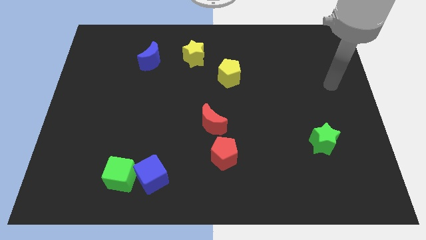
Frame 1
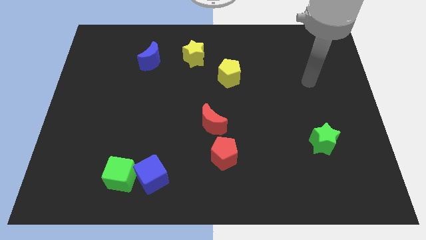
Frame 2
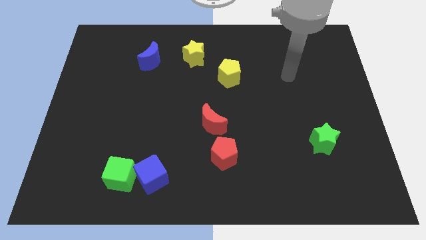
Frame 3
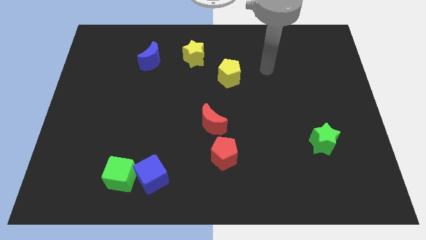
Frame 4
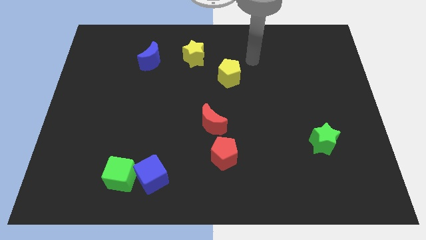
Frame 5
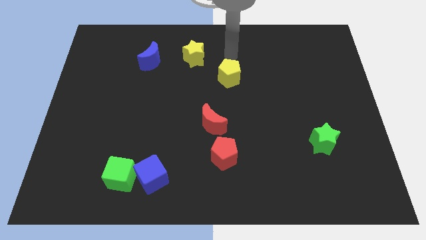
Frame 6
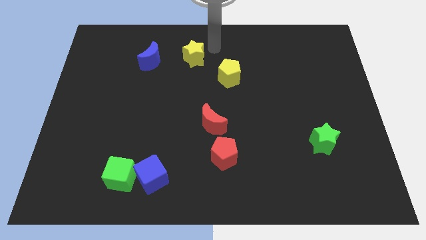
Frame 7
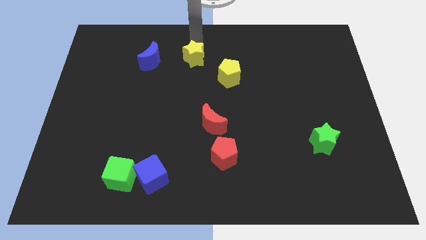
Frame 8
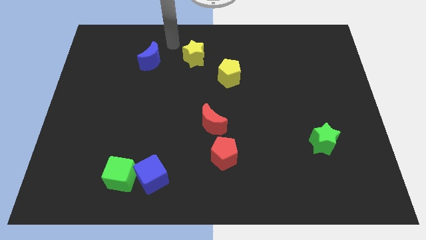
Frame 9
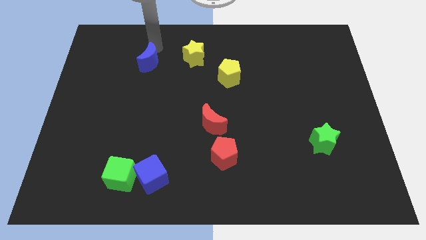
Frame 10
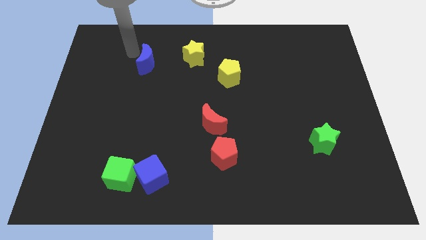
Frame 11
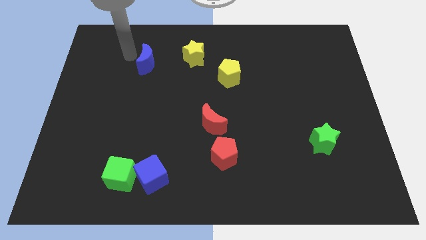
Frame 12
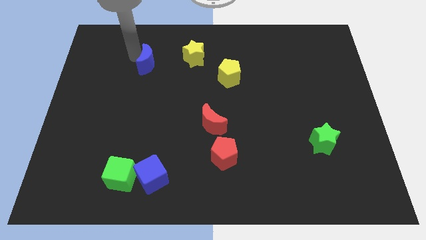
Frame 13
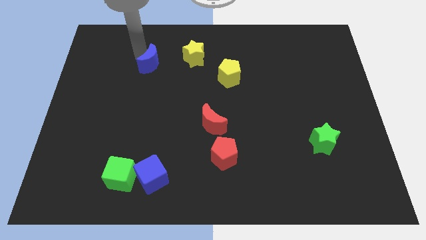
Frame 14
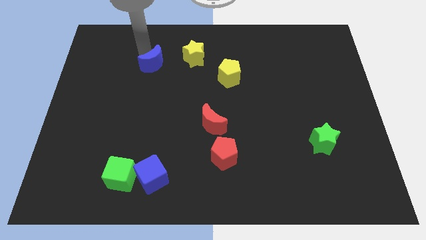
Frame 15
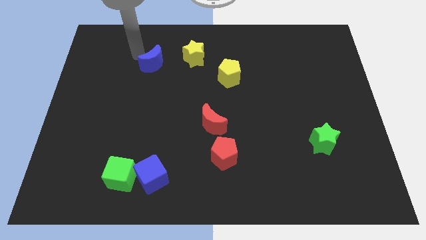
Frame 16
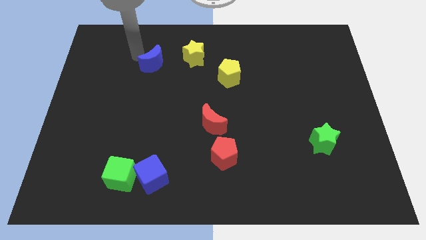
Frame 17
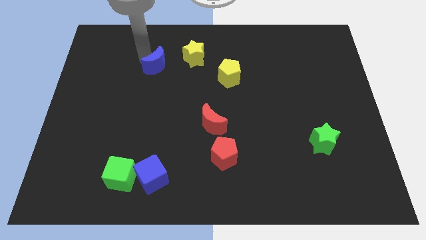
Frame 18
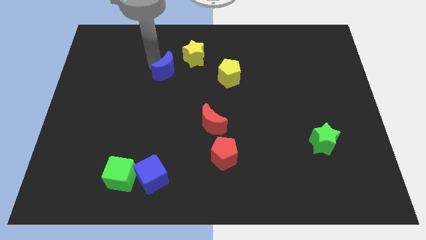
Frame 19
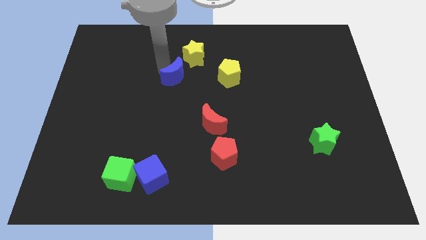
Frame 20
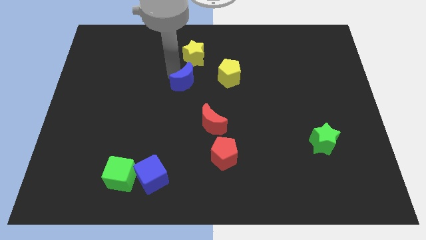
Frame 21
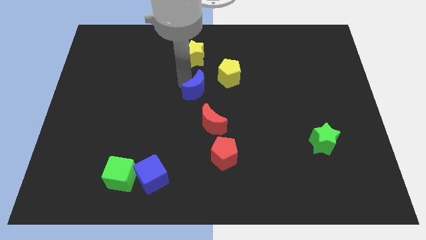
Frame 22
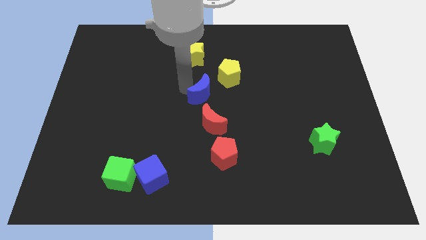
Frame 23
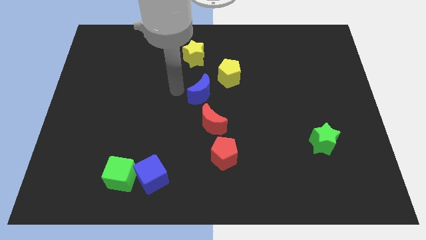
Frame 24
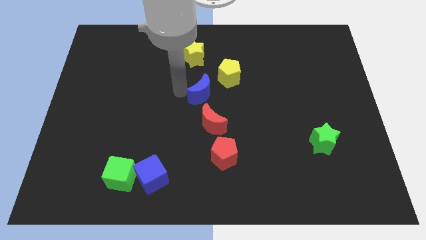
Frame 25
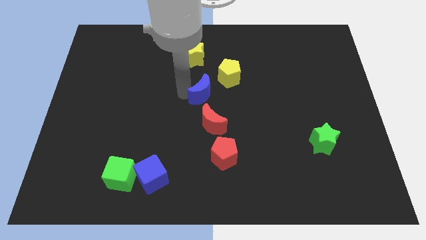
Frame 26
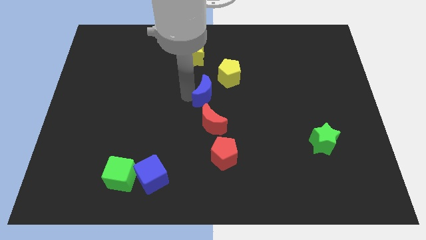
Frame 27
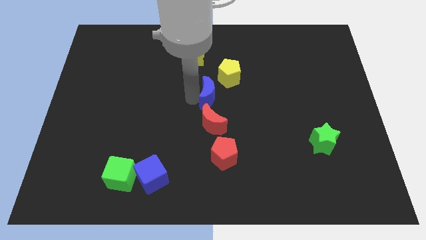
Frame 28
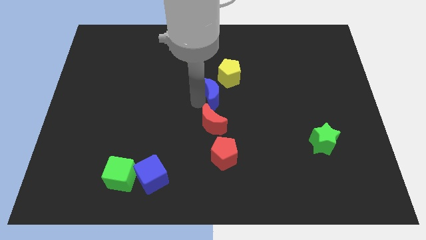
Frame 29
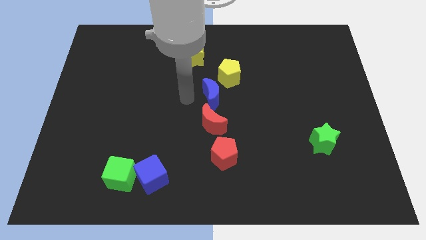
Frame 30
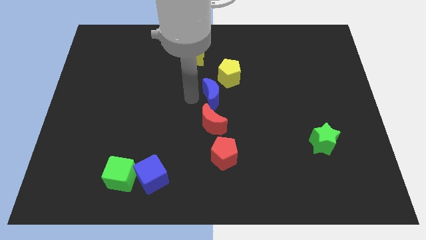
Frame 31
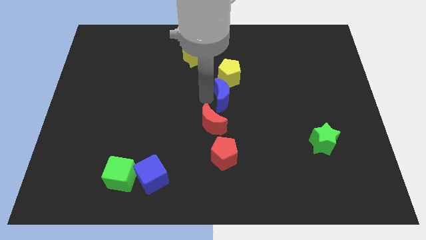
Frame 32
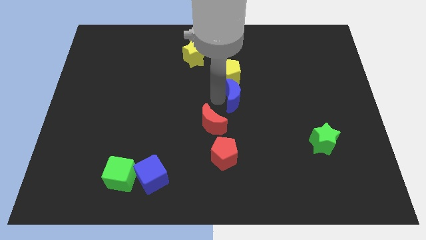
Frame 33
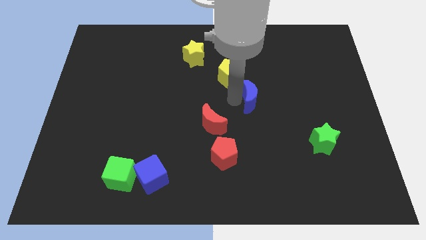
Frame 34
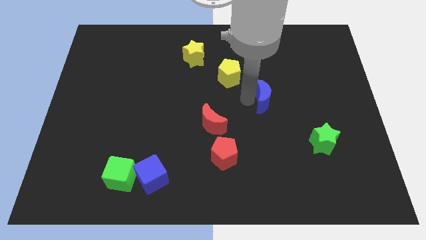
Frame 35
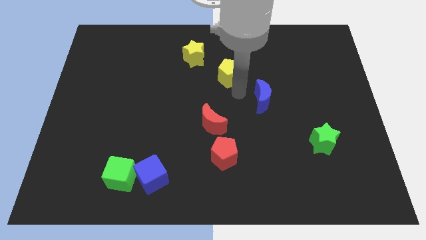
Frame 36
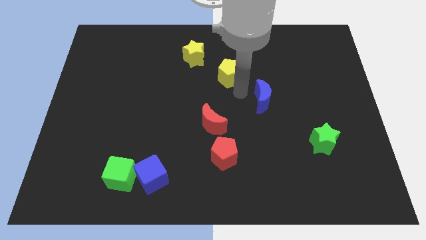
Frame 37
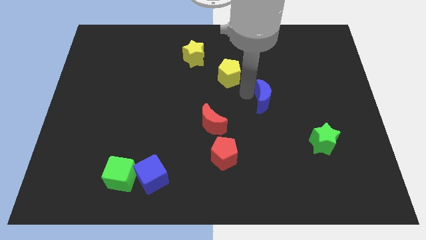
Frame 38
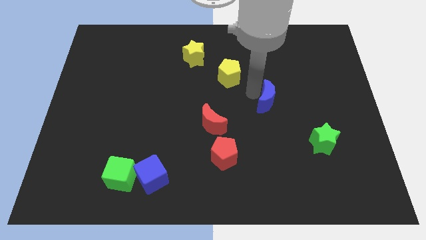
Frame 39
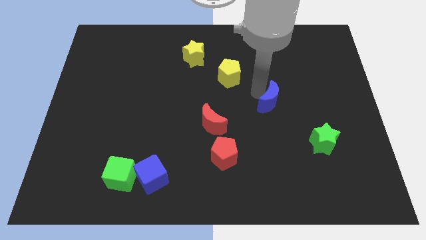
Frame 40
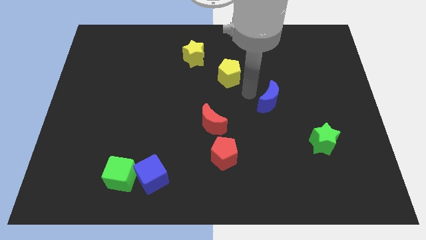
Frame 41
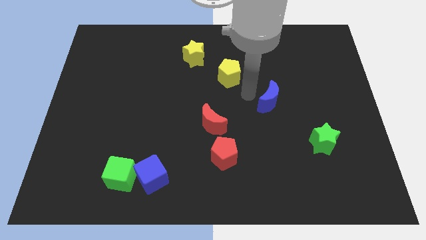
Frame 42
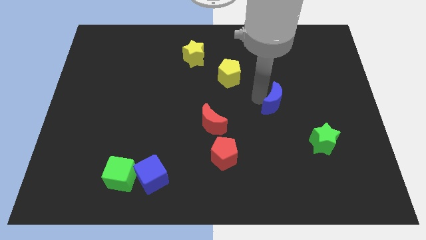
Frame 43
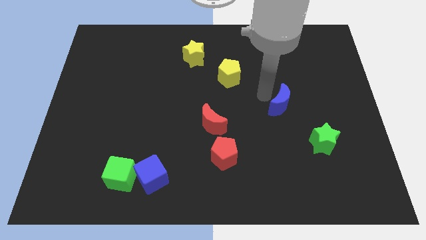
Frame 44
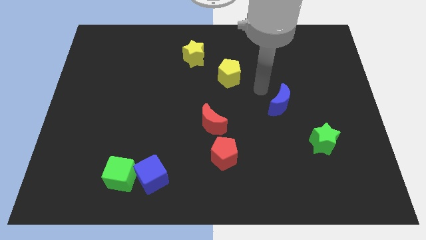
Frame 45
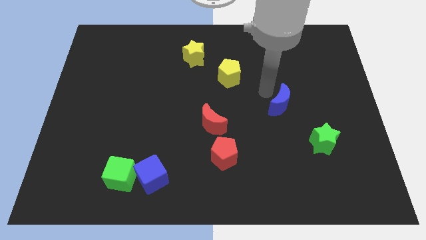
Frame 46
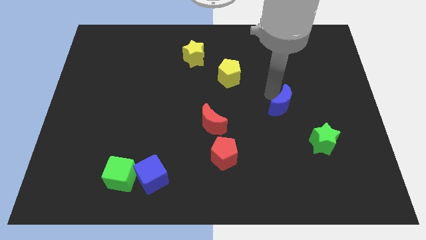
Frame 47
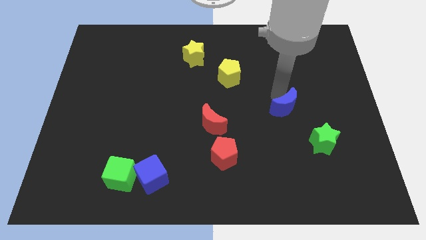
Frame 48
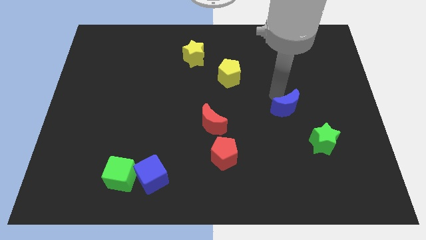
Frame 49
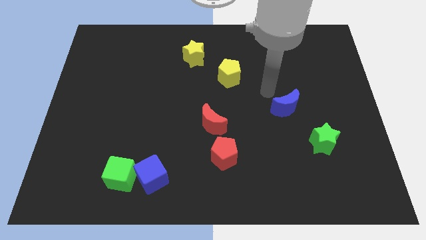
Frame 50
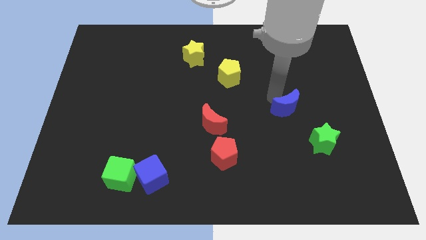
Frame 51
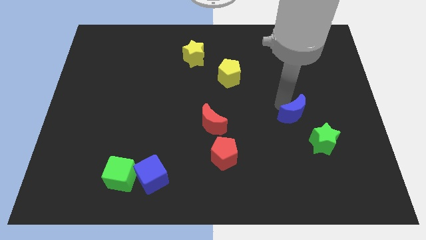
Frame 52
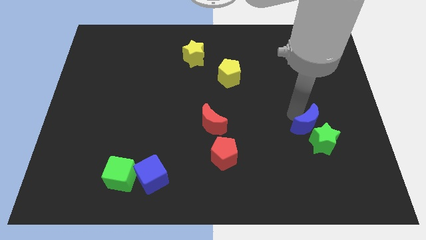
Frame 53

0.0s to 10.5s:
push the blue moon close to the green star

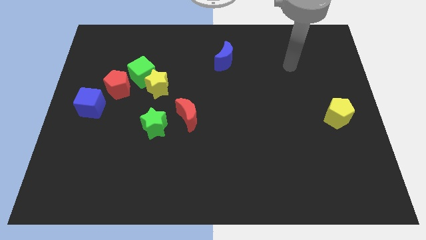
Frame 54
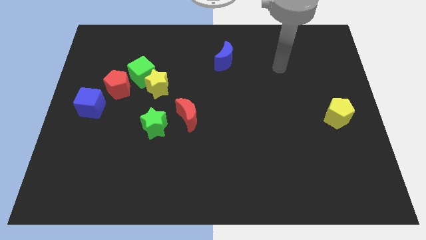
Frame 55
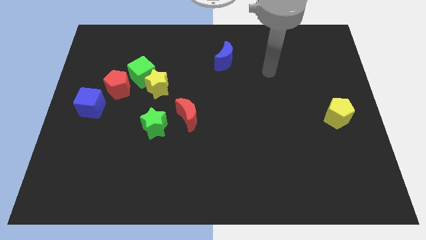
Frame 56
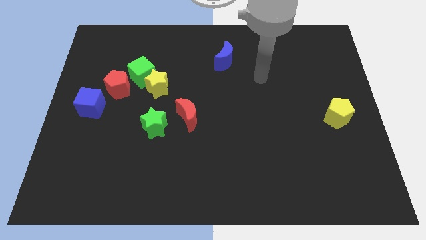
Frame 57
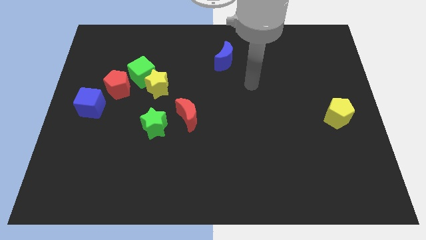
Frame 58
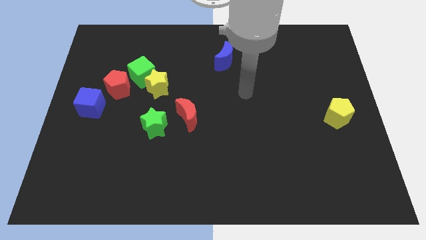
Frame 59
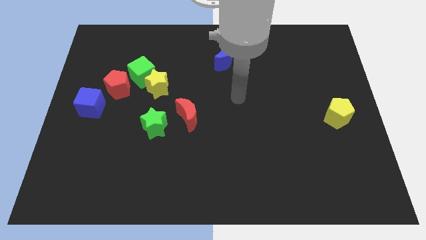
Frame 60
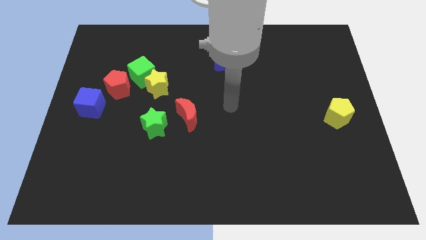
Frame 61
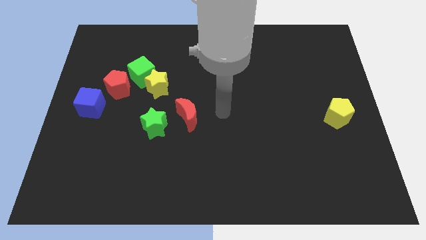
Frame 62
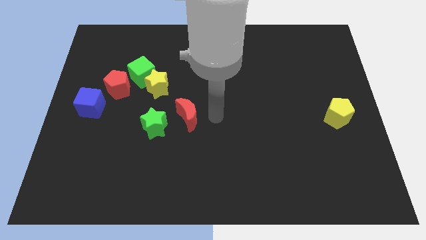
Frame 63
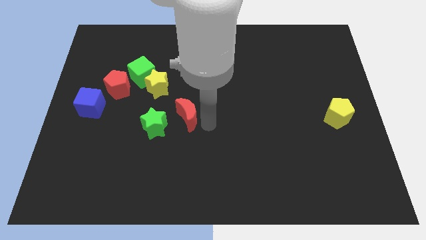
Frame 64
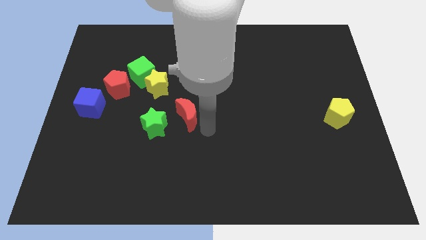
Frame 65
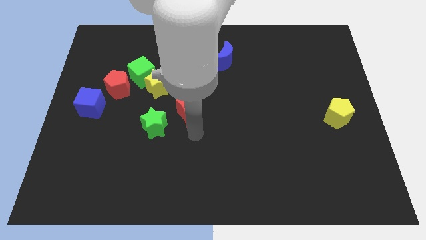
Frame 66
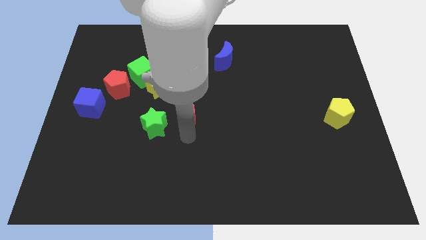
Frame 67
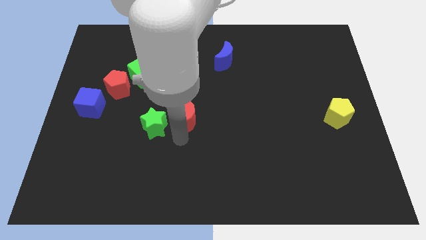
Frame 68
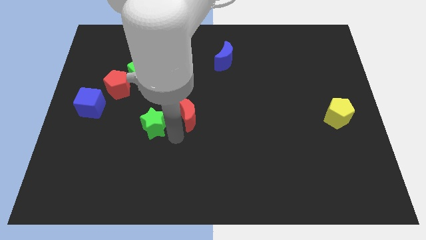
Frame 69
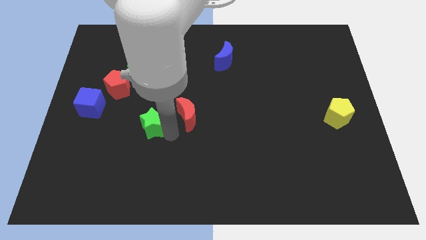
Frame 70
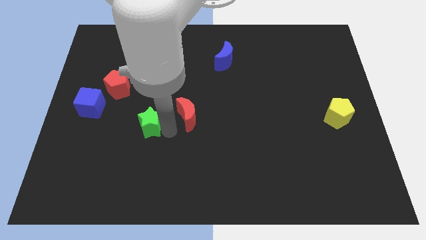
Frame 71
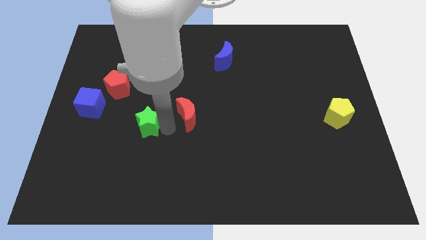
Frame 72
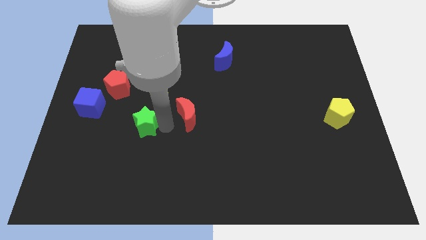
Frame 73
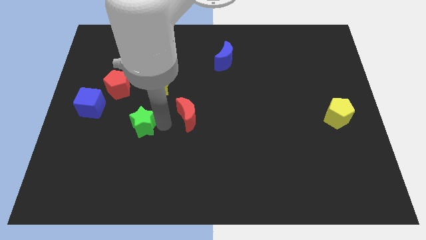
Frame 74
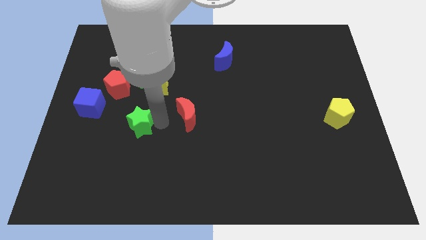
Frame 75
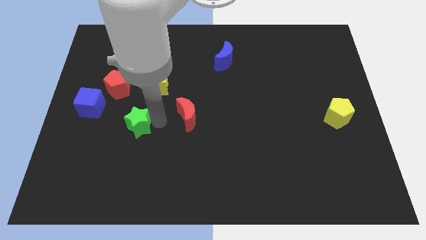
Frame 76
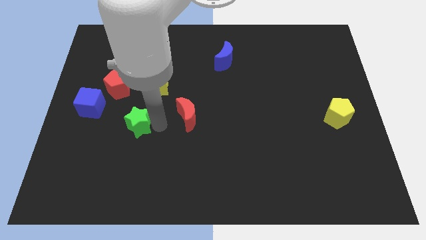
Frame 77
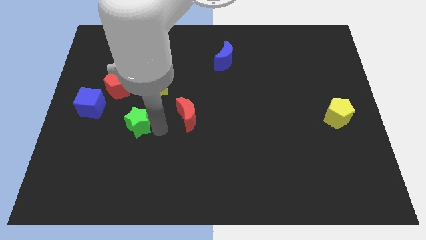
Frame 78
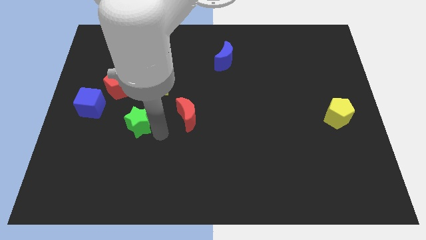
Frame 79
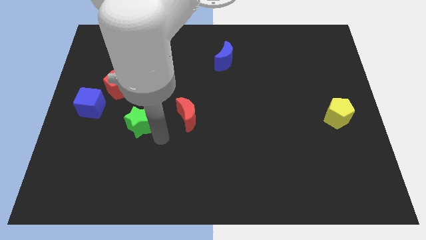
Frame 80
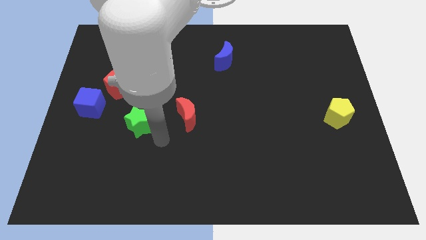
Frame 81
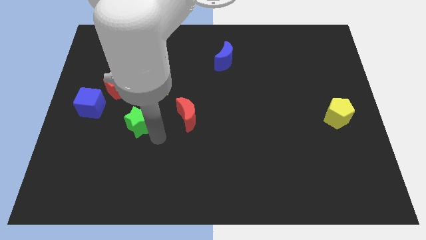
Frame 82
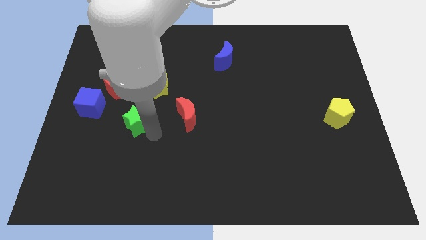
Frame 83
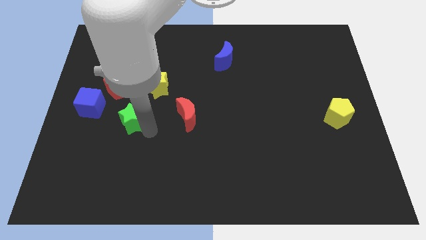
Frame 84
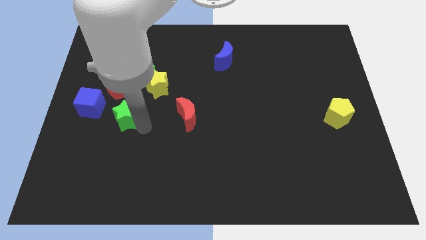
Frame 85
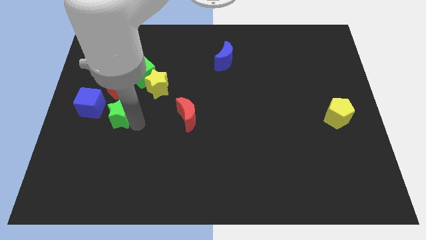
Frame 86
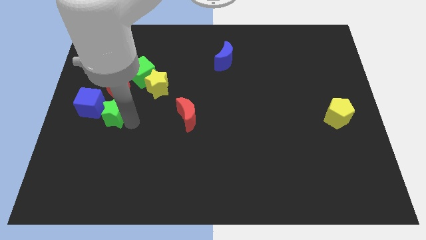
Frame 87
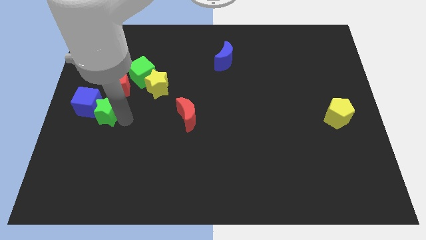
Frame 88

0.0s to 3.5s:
move the green star towards the blue cube
